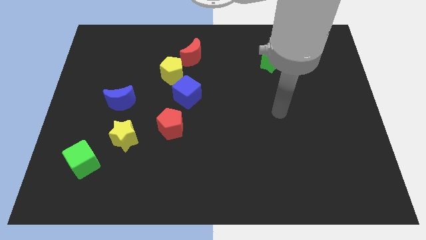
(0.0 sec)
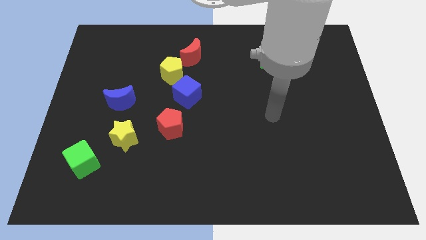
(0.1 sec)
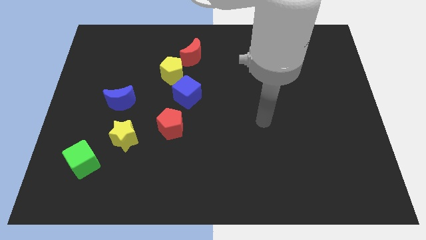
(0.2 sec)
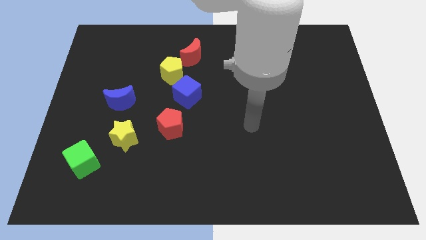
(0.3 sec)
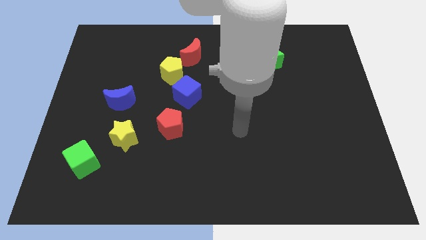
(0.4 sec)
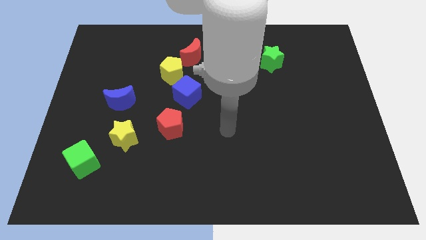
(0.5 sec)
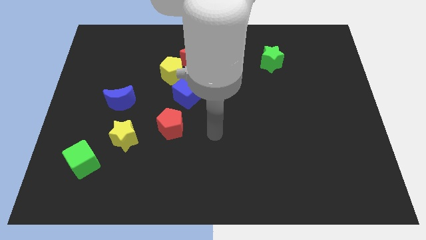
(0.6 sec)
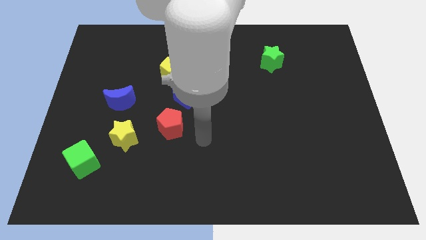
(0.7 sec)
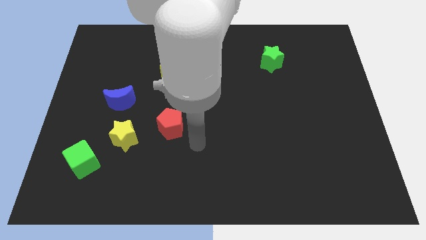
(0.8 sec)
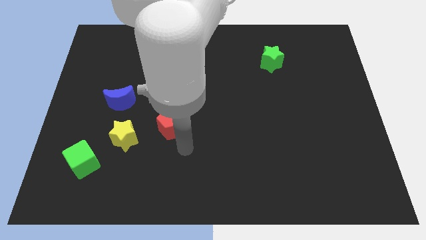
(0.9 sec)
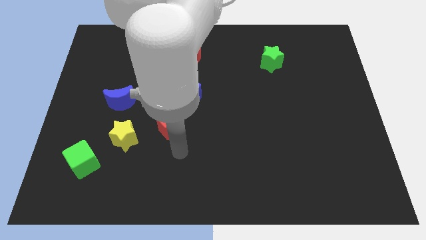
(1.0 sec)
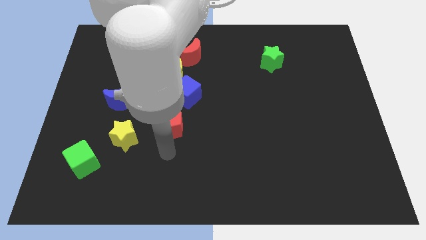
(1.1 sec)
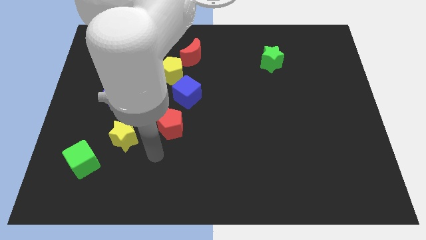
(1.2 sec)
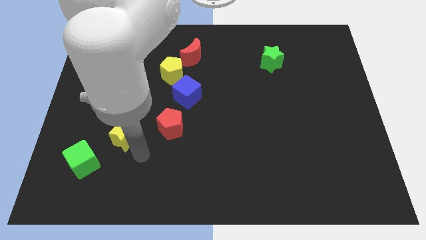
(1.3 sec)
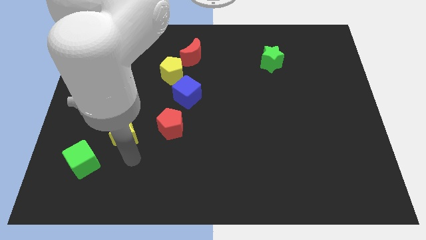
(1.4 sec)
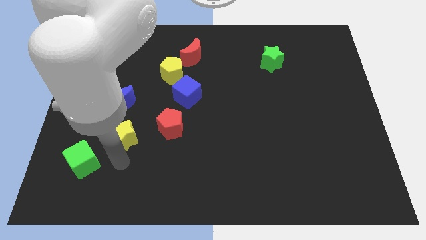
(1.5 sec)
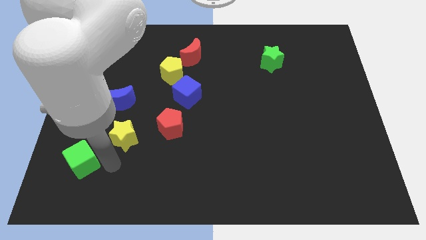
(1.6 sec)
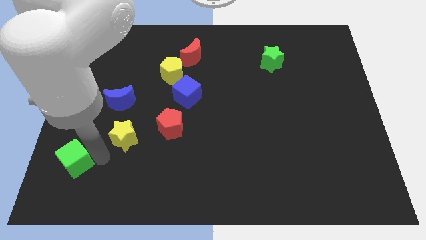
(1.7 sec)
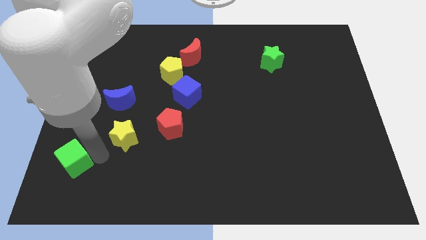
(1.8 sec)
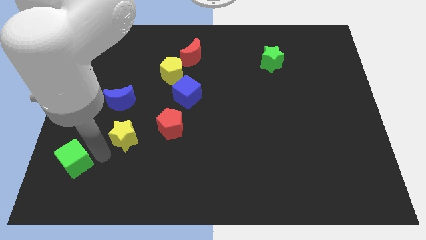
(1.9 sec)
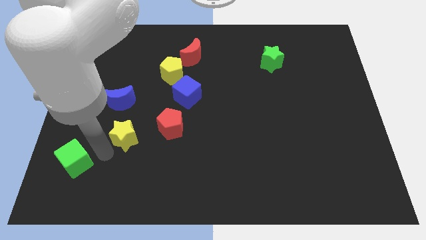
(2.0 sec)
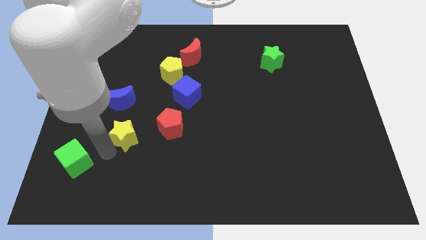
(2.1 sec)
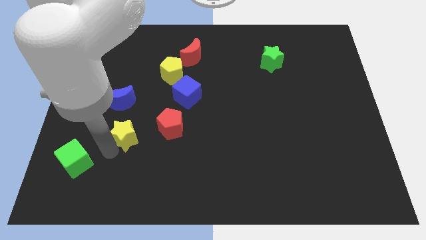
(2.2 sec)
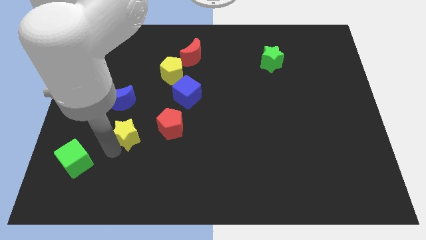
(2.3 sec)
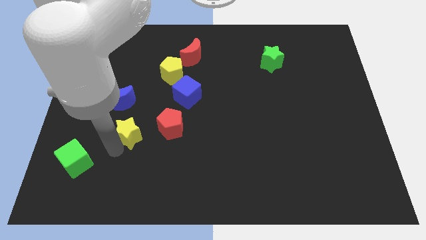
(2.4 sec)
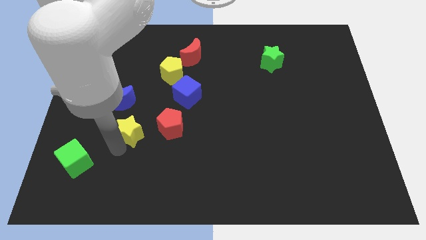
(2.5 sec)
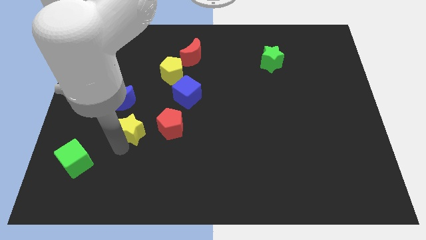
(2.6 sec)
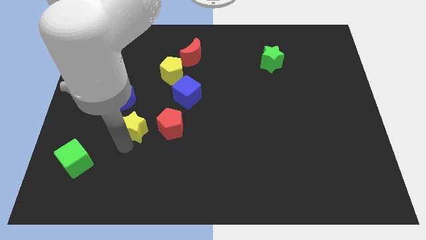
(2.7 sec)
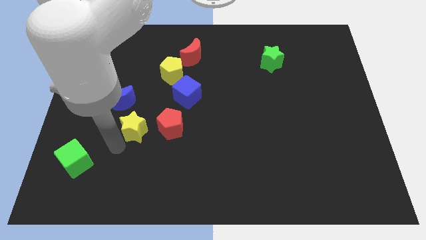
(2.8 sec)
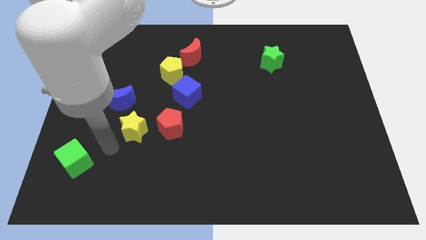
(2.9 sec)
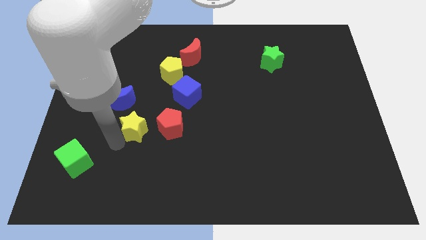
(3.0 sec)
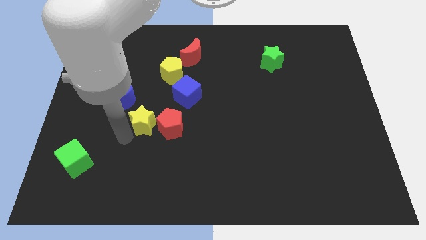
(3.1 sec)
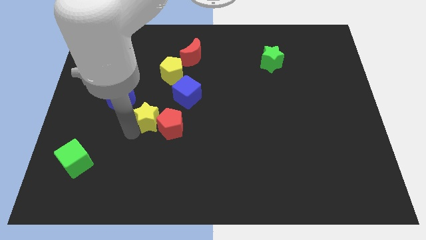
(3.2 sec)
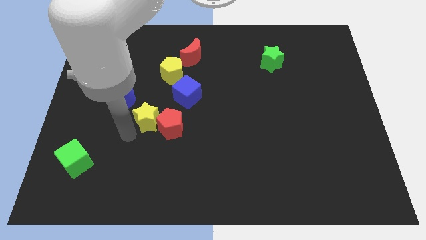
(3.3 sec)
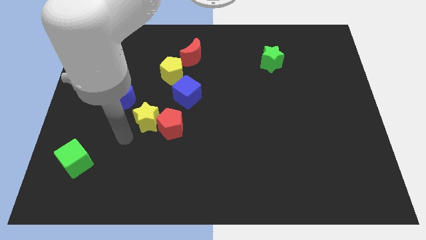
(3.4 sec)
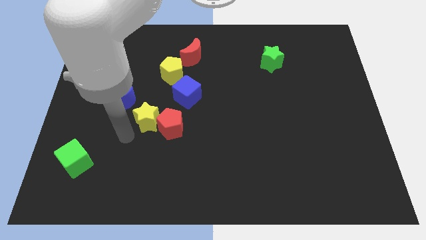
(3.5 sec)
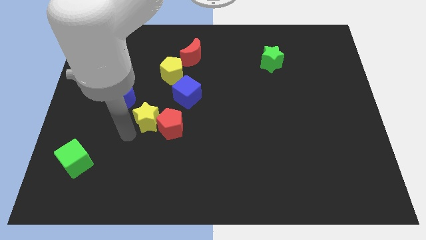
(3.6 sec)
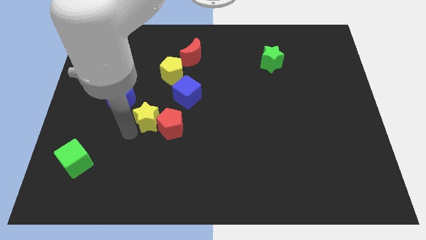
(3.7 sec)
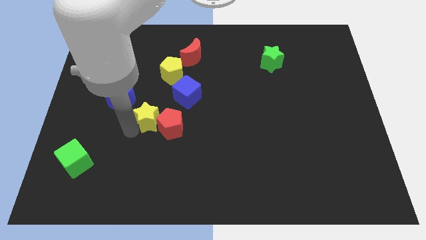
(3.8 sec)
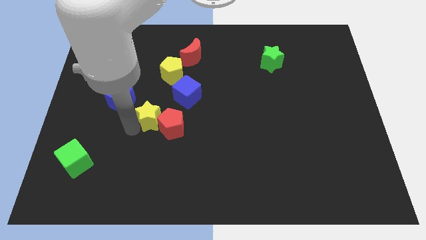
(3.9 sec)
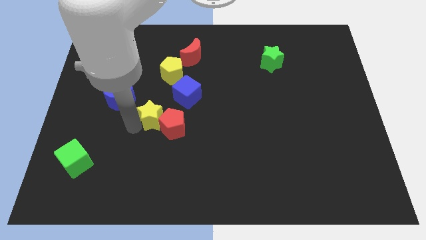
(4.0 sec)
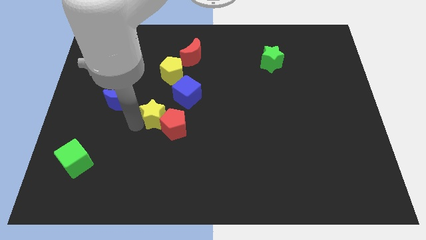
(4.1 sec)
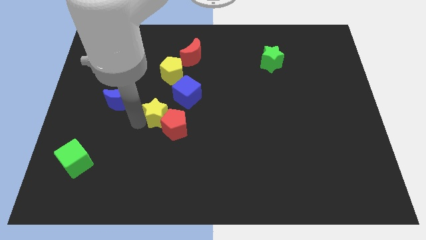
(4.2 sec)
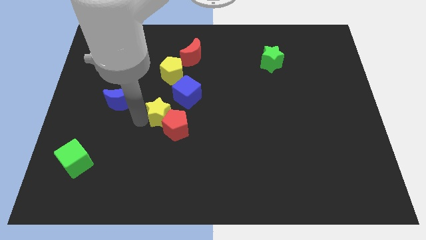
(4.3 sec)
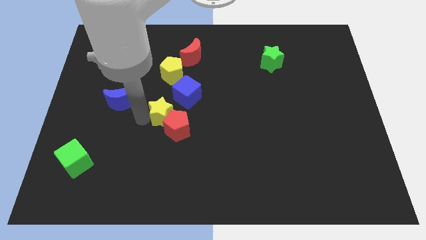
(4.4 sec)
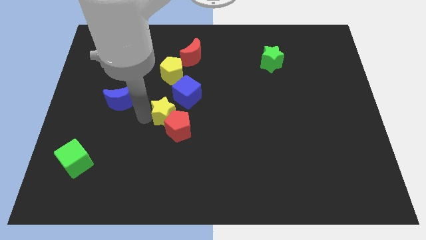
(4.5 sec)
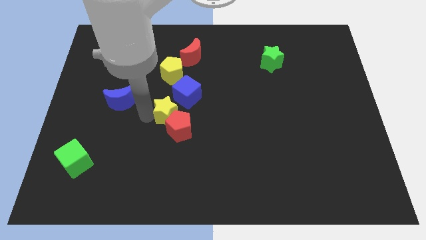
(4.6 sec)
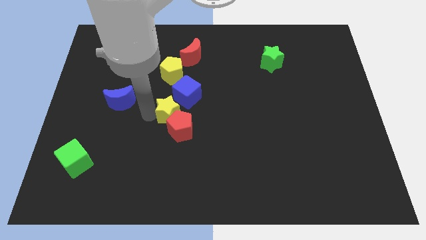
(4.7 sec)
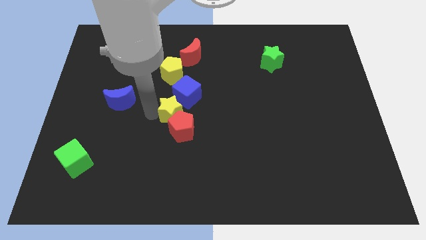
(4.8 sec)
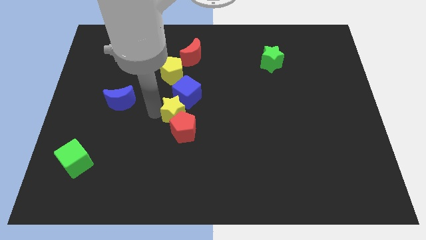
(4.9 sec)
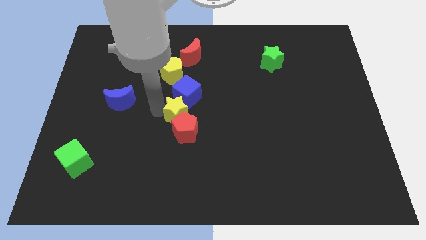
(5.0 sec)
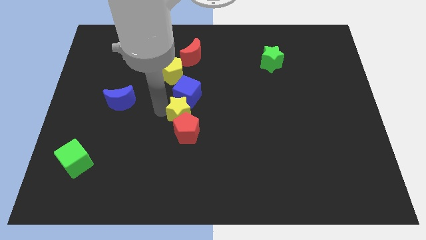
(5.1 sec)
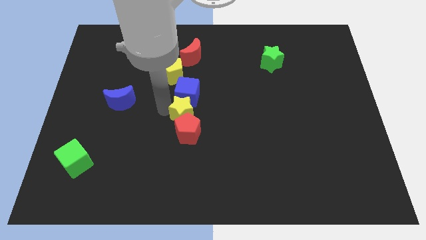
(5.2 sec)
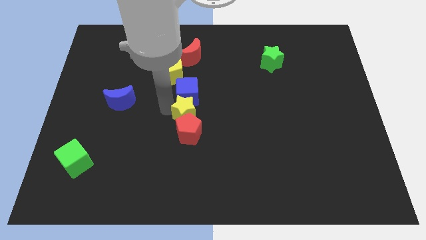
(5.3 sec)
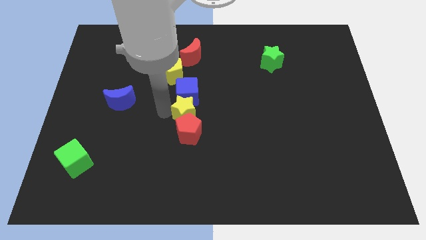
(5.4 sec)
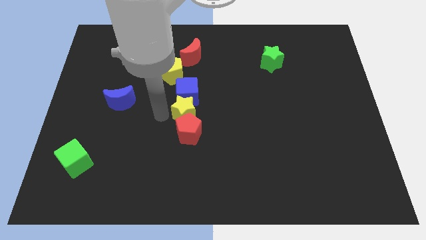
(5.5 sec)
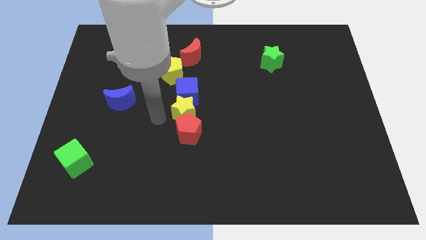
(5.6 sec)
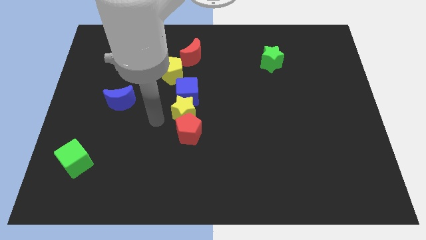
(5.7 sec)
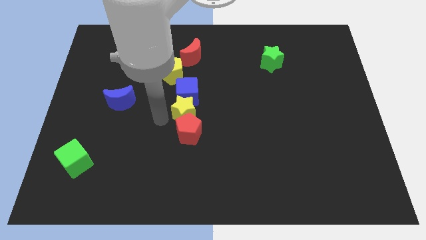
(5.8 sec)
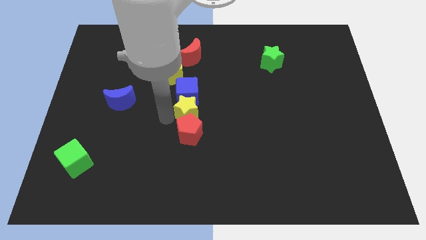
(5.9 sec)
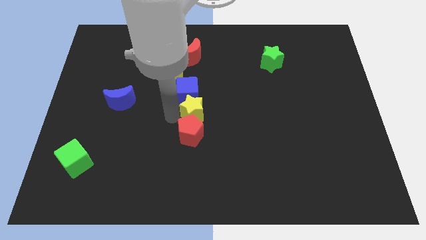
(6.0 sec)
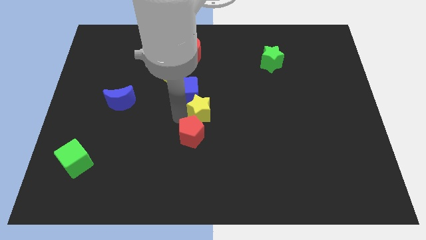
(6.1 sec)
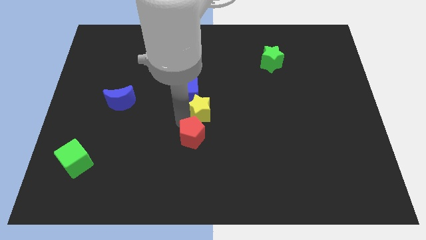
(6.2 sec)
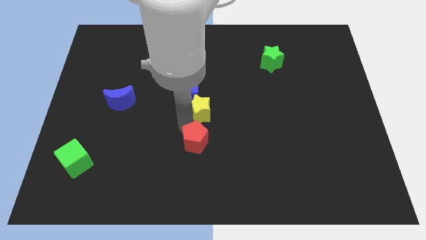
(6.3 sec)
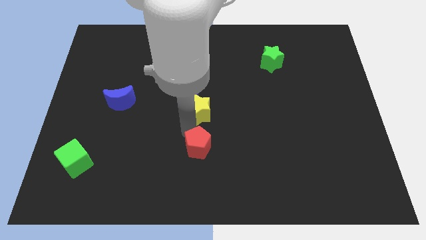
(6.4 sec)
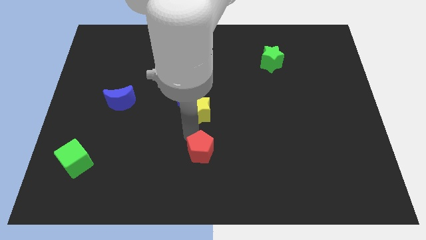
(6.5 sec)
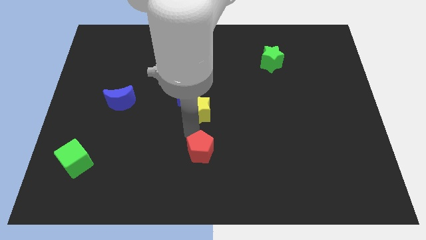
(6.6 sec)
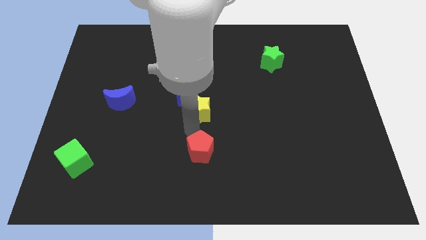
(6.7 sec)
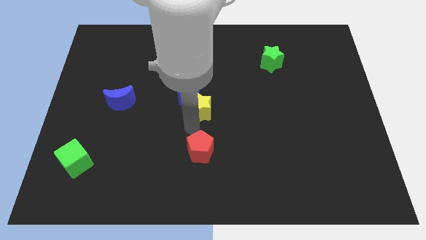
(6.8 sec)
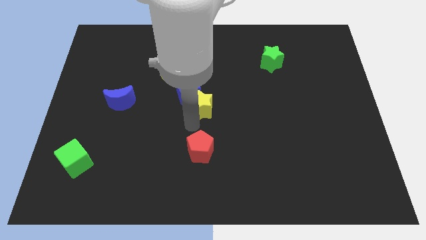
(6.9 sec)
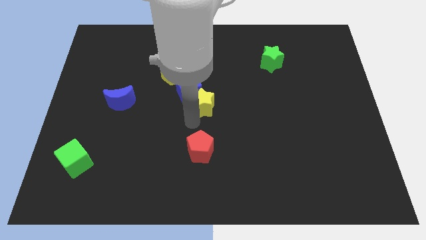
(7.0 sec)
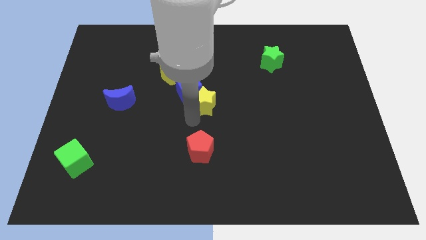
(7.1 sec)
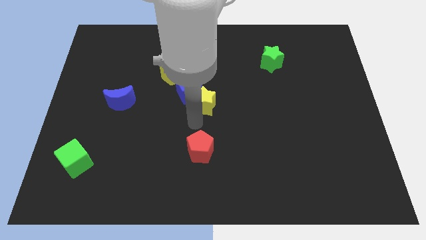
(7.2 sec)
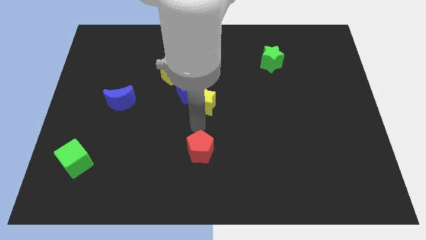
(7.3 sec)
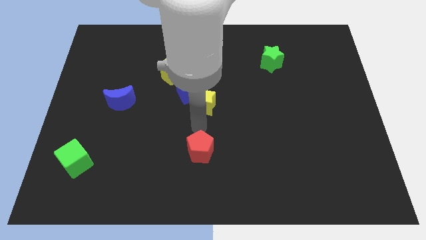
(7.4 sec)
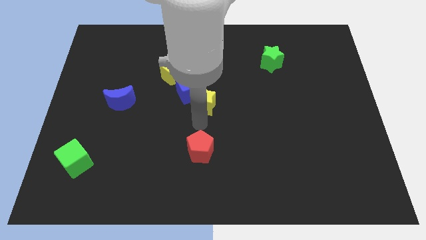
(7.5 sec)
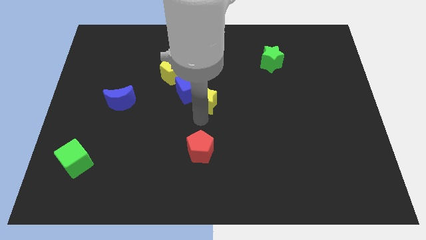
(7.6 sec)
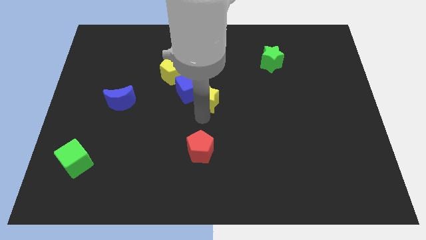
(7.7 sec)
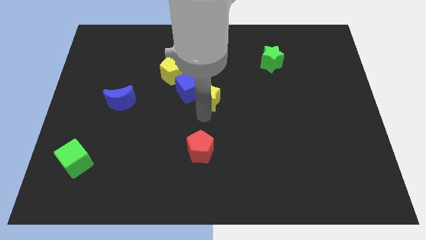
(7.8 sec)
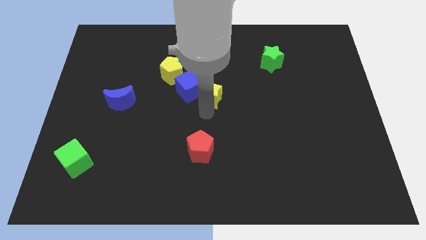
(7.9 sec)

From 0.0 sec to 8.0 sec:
push the yellow star upwards and right diagonally

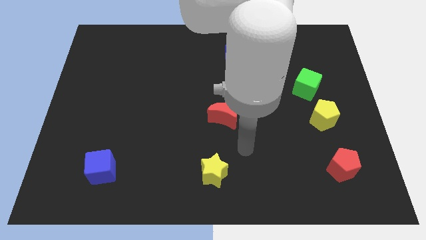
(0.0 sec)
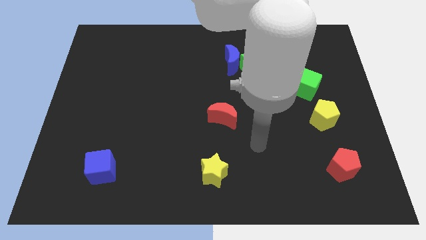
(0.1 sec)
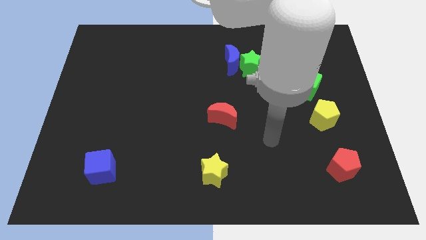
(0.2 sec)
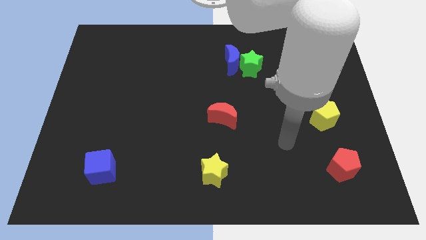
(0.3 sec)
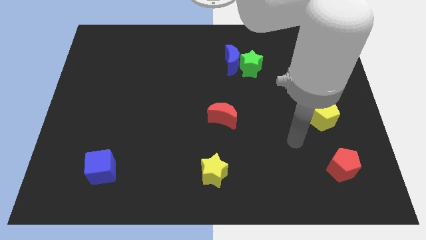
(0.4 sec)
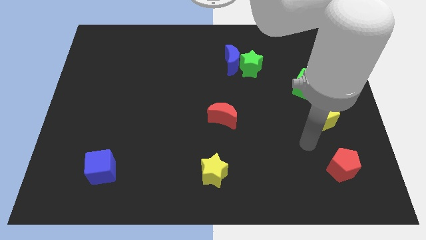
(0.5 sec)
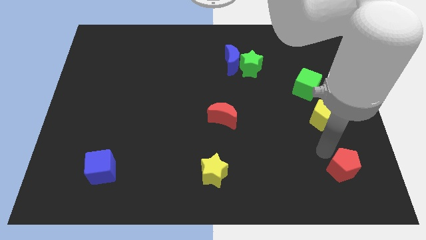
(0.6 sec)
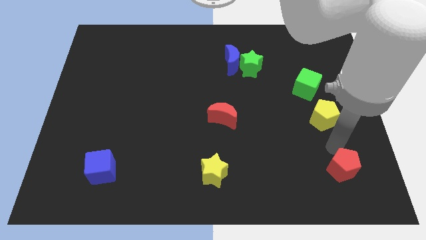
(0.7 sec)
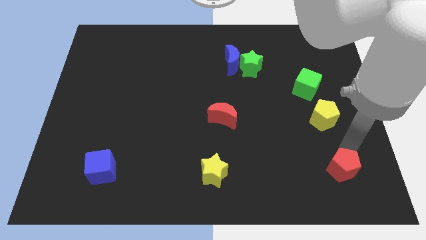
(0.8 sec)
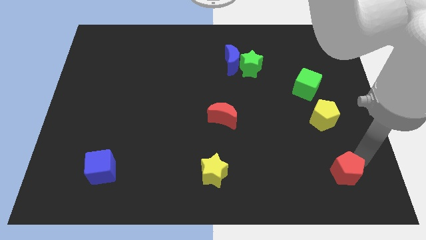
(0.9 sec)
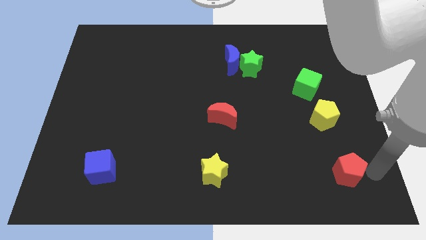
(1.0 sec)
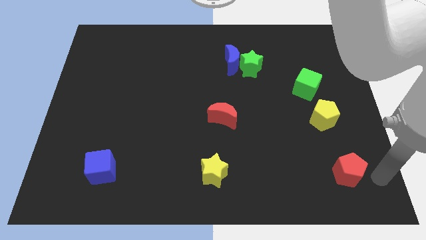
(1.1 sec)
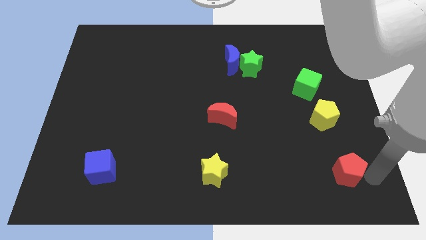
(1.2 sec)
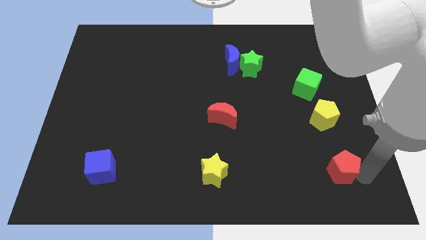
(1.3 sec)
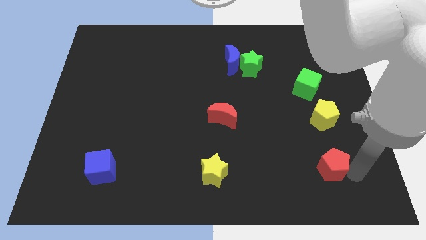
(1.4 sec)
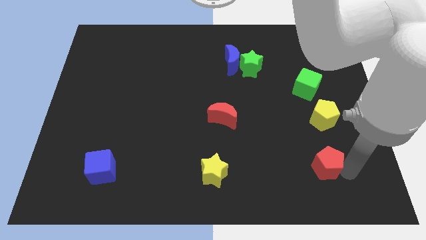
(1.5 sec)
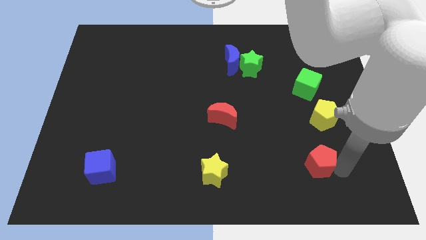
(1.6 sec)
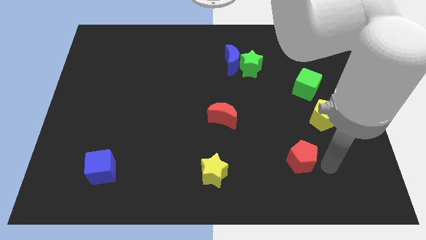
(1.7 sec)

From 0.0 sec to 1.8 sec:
move the red pentagon to the left somewhat
